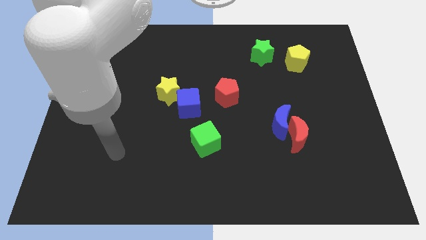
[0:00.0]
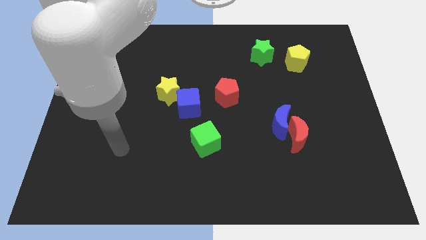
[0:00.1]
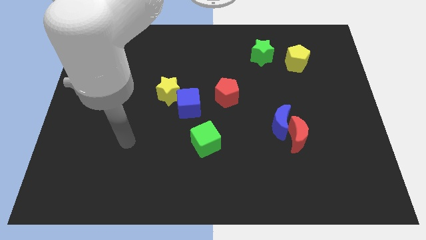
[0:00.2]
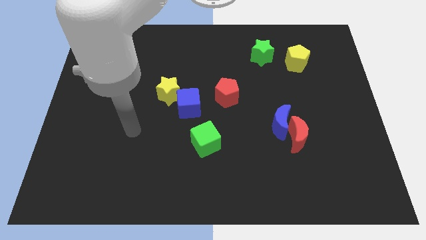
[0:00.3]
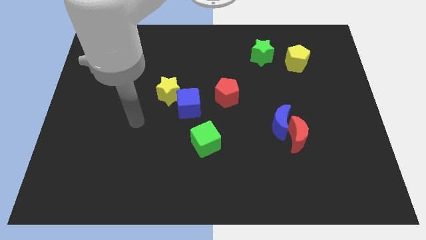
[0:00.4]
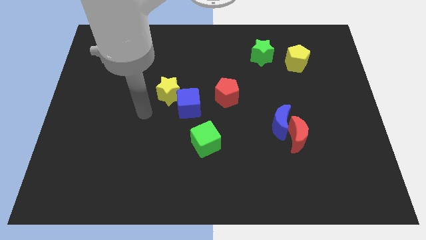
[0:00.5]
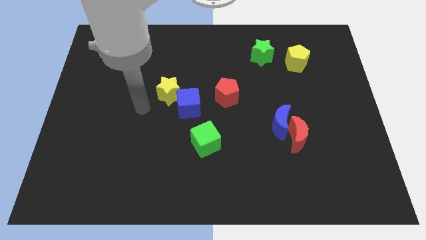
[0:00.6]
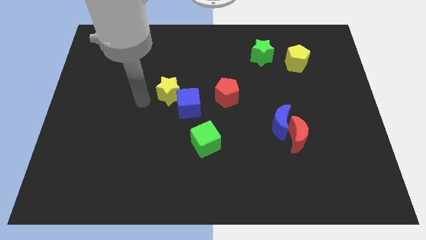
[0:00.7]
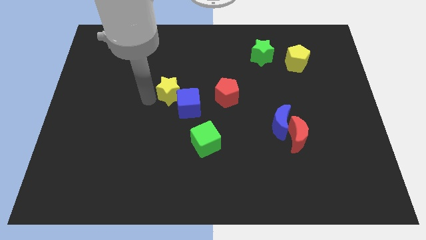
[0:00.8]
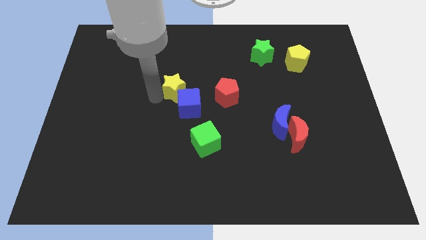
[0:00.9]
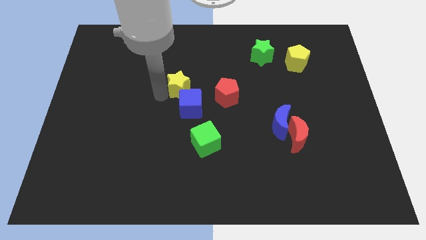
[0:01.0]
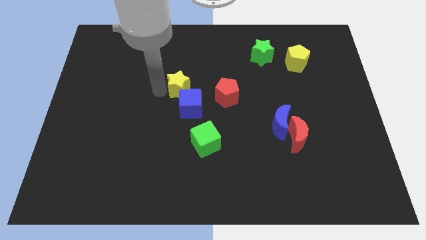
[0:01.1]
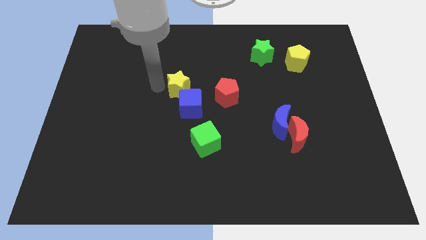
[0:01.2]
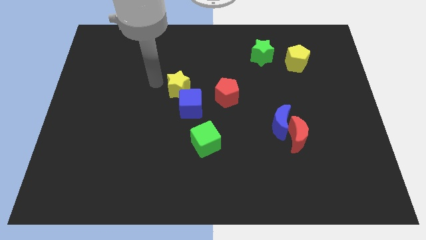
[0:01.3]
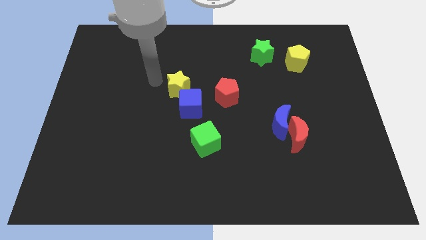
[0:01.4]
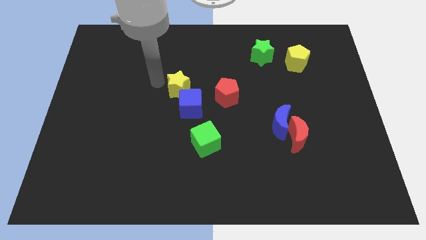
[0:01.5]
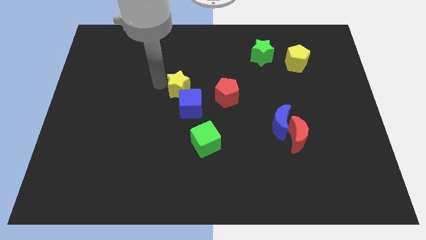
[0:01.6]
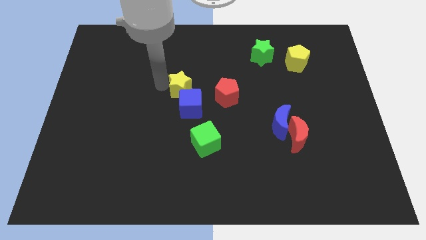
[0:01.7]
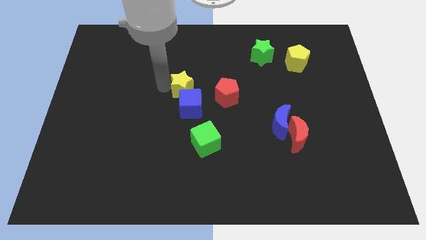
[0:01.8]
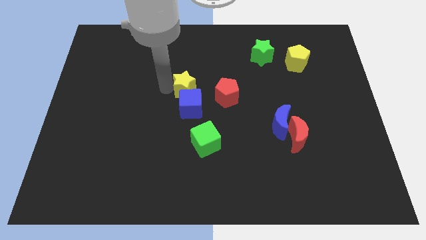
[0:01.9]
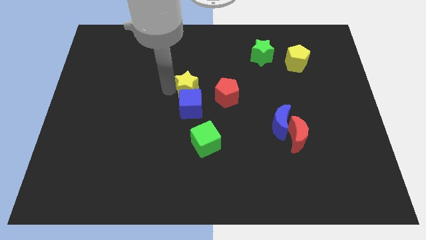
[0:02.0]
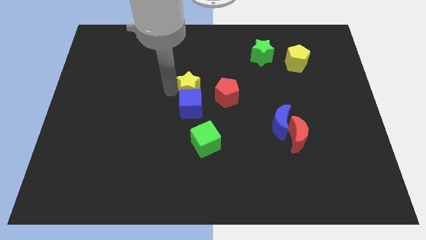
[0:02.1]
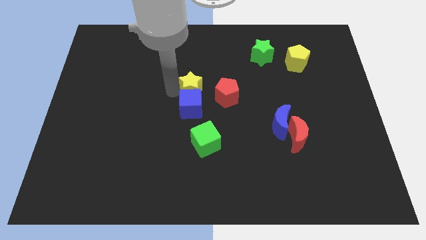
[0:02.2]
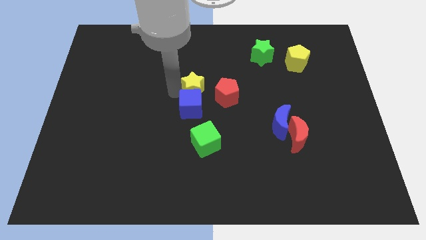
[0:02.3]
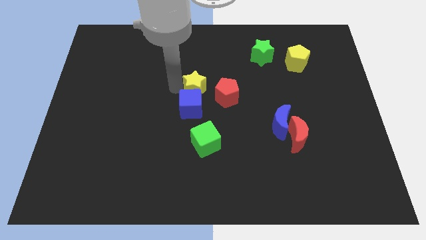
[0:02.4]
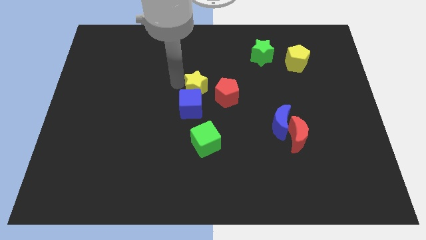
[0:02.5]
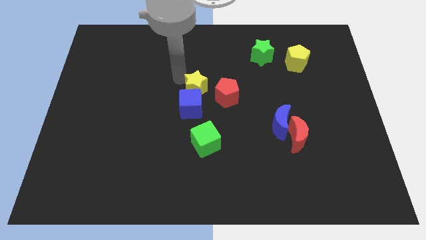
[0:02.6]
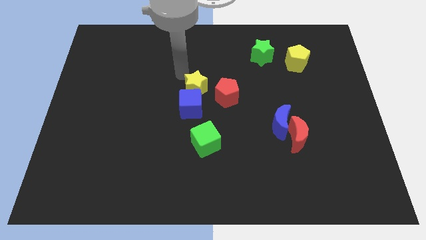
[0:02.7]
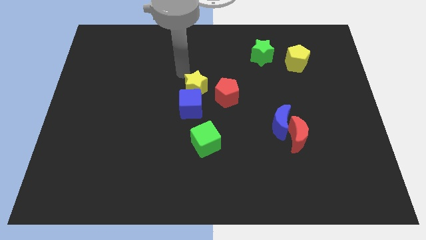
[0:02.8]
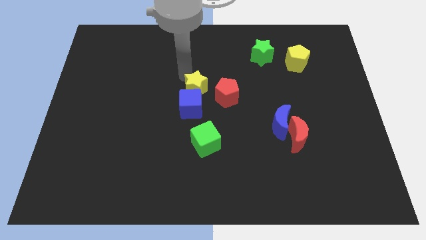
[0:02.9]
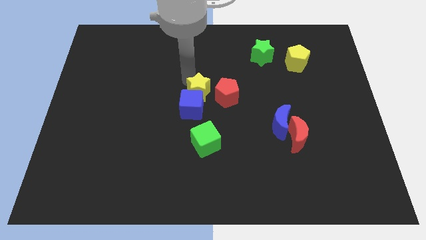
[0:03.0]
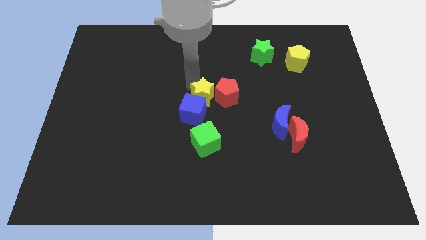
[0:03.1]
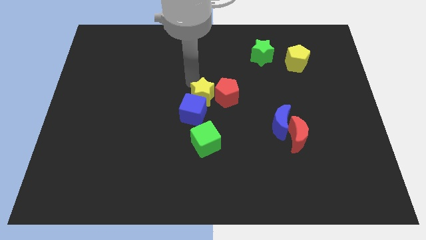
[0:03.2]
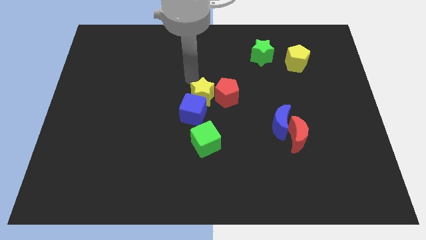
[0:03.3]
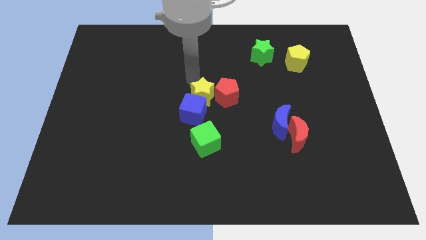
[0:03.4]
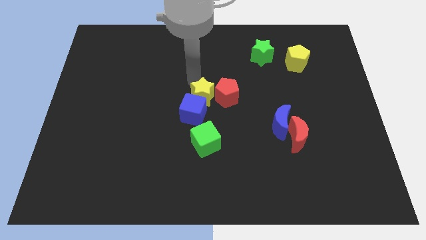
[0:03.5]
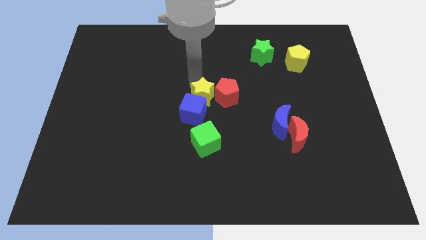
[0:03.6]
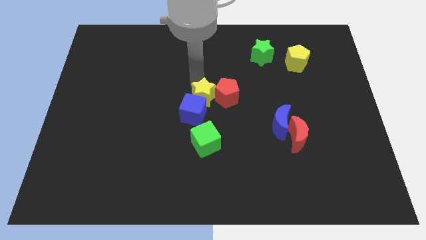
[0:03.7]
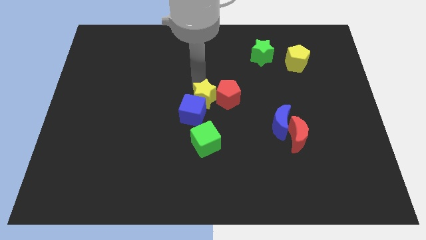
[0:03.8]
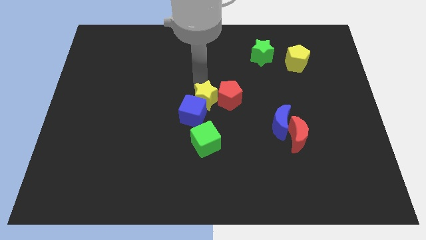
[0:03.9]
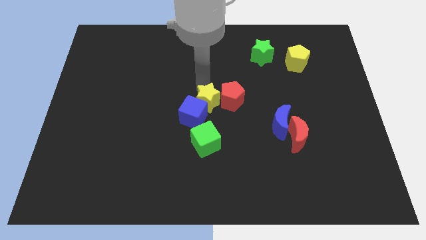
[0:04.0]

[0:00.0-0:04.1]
slide the yellow star downwards and right a bit

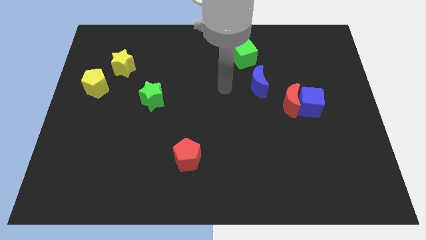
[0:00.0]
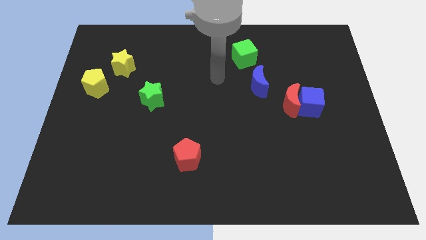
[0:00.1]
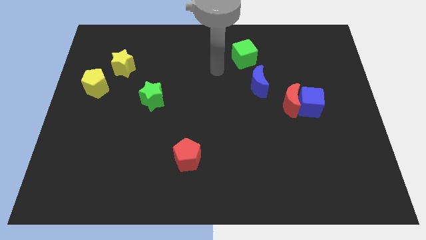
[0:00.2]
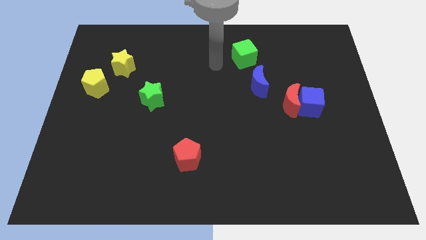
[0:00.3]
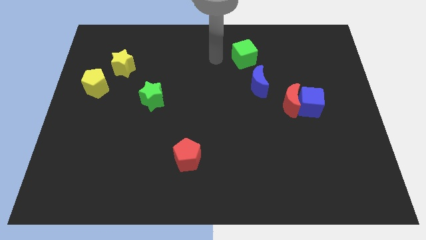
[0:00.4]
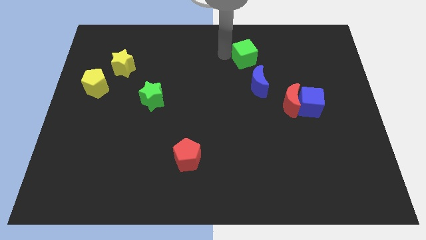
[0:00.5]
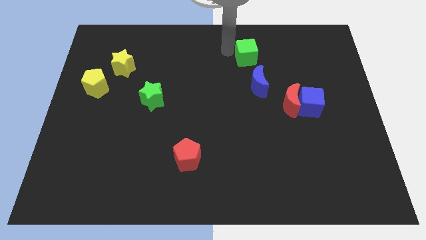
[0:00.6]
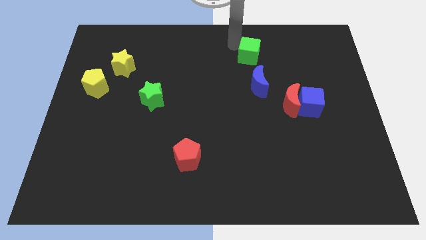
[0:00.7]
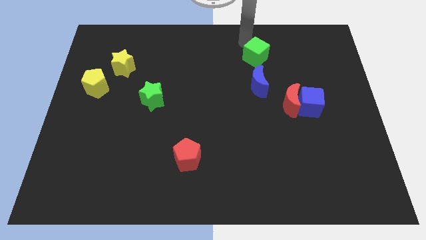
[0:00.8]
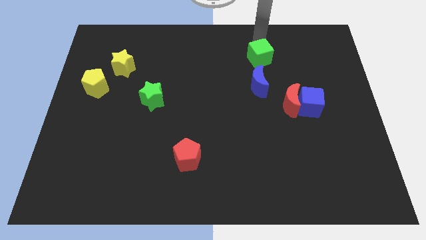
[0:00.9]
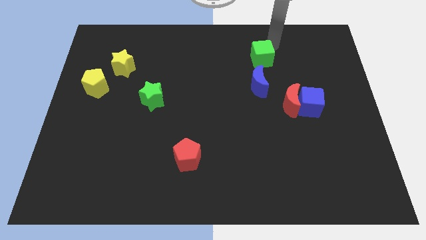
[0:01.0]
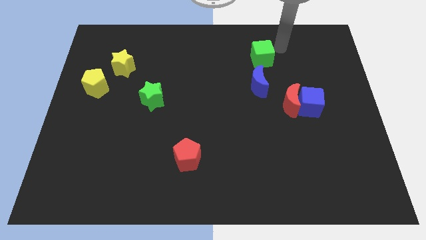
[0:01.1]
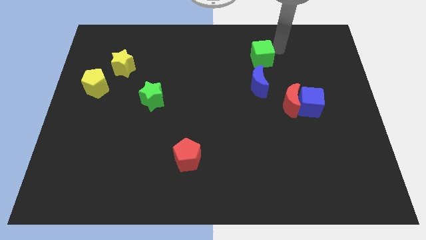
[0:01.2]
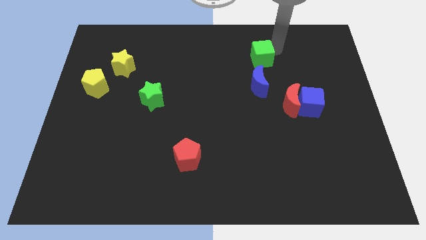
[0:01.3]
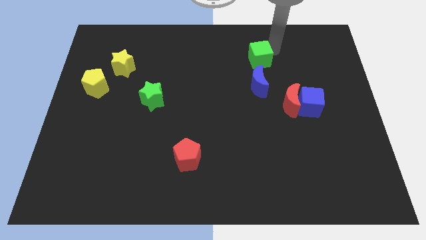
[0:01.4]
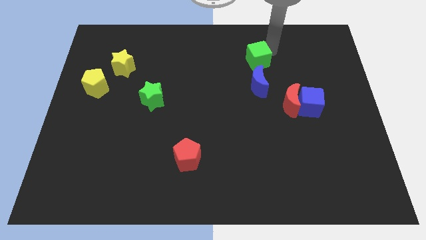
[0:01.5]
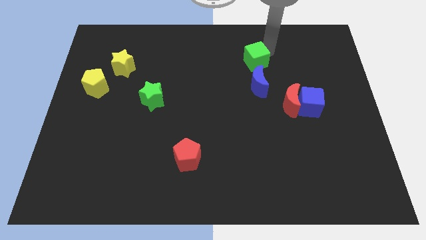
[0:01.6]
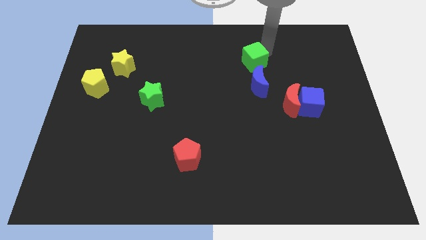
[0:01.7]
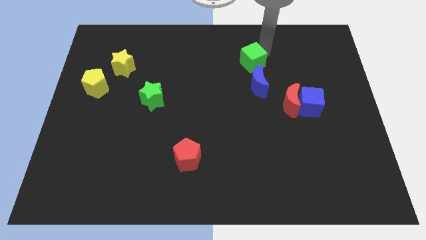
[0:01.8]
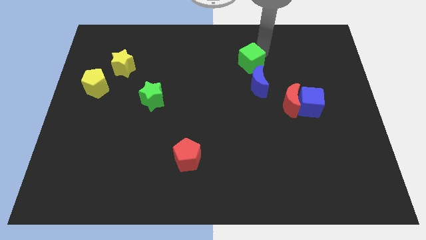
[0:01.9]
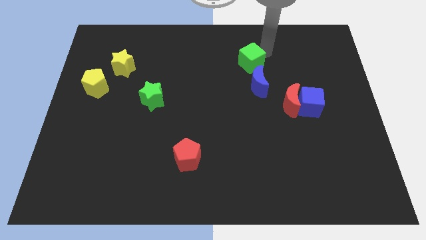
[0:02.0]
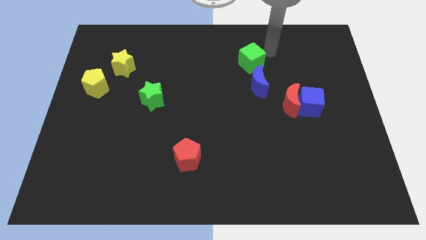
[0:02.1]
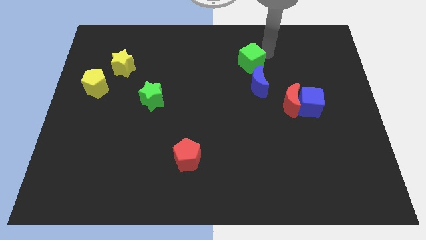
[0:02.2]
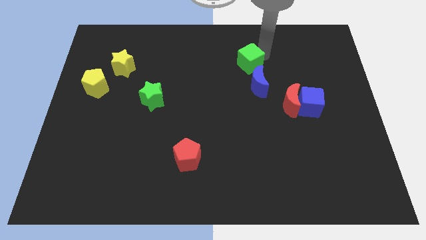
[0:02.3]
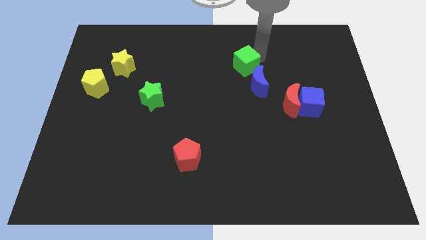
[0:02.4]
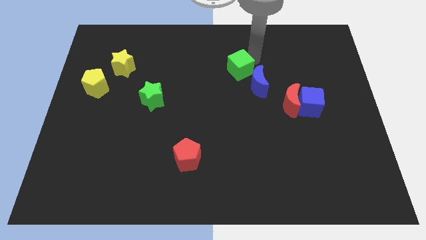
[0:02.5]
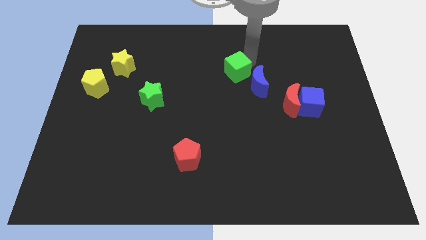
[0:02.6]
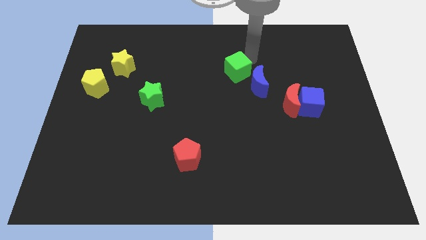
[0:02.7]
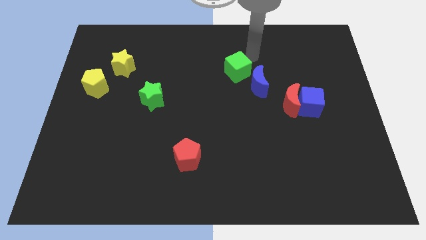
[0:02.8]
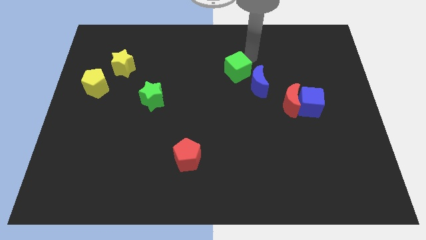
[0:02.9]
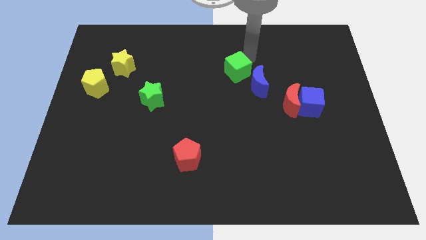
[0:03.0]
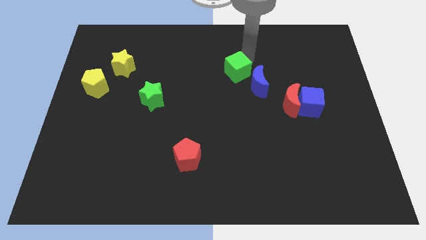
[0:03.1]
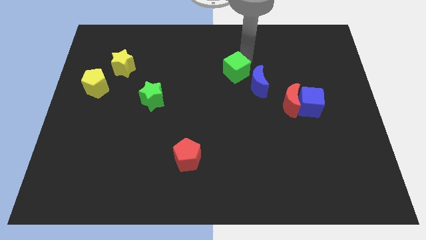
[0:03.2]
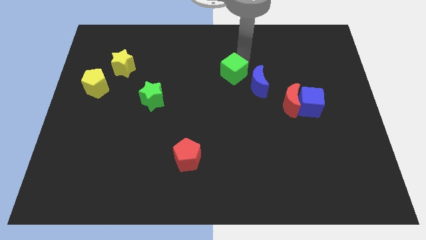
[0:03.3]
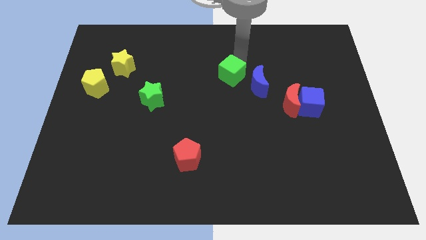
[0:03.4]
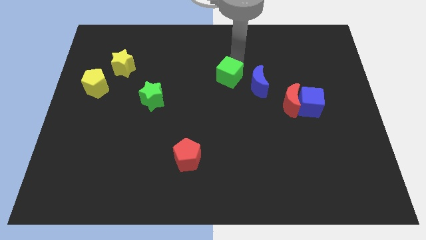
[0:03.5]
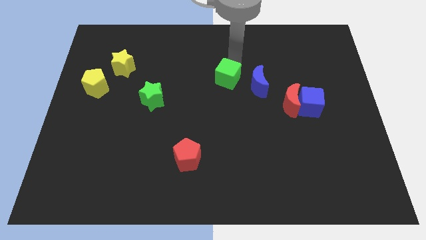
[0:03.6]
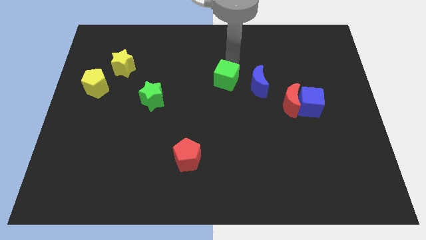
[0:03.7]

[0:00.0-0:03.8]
push the green cube a little bit down

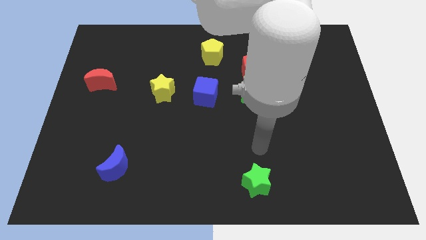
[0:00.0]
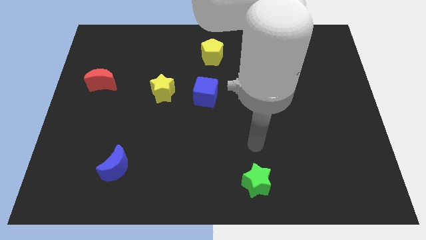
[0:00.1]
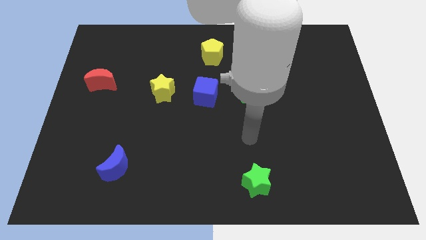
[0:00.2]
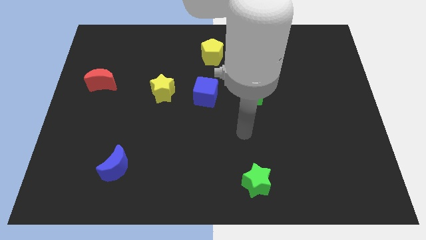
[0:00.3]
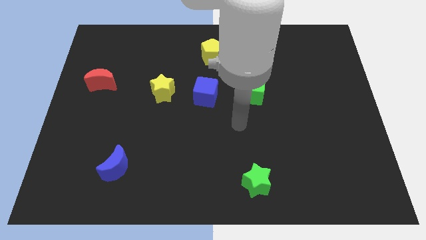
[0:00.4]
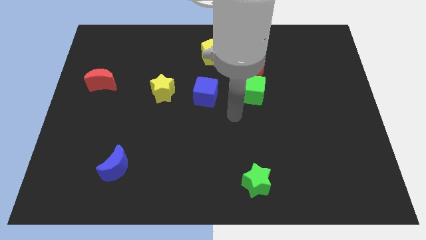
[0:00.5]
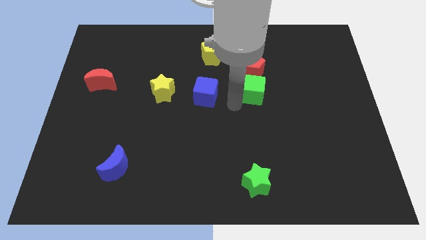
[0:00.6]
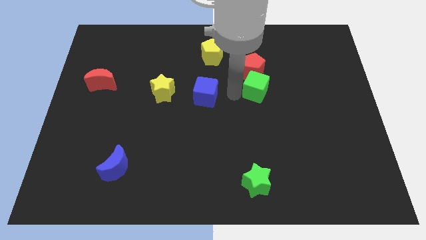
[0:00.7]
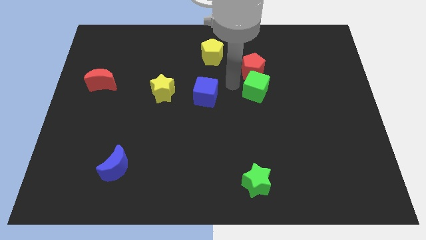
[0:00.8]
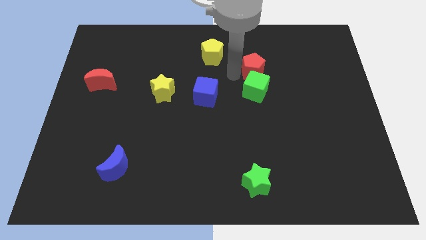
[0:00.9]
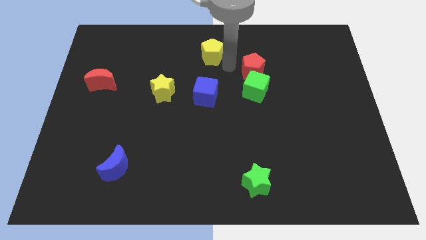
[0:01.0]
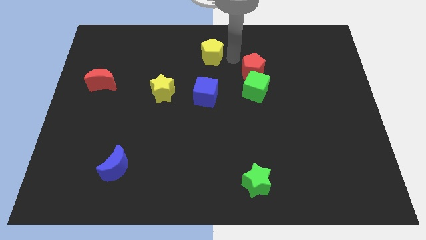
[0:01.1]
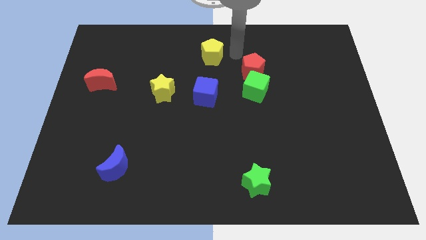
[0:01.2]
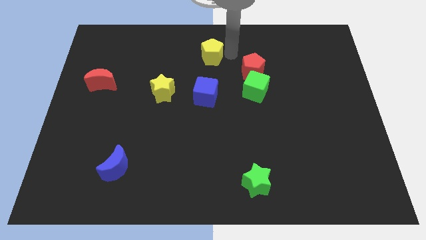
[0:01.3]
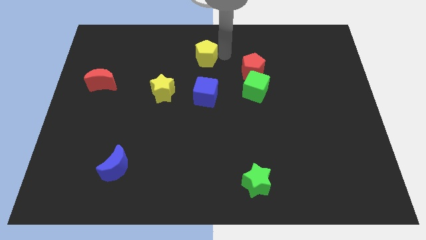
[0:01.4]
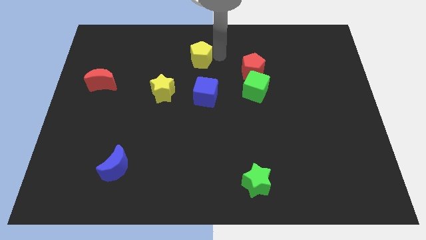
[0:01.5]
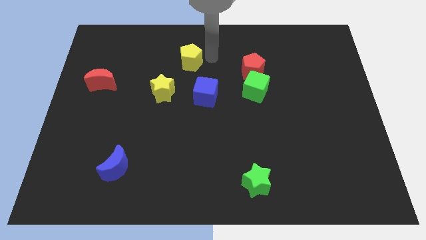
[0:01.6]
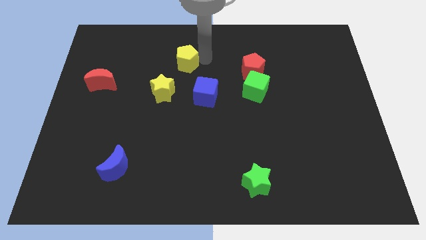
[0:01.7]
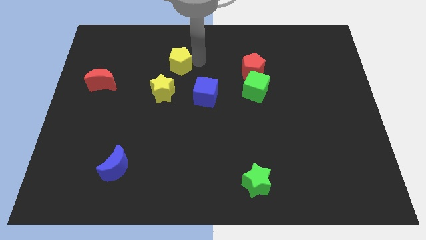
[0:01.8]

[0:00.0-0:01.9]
slightly move the yellow pentagon left
